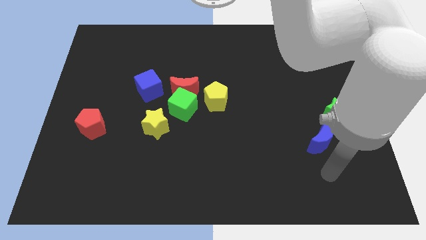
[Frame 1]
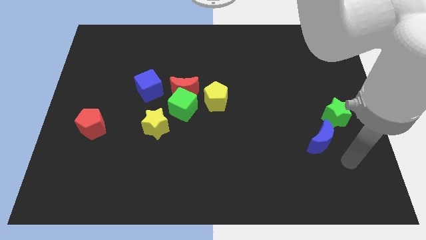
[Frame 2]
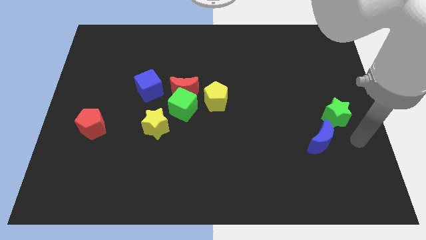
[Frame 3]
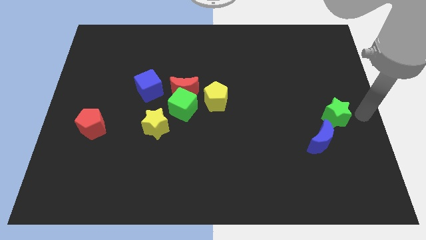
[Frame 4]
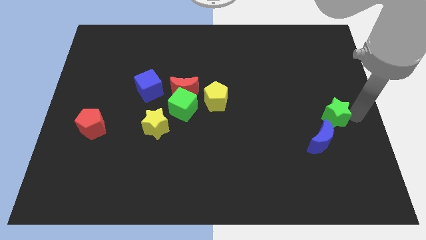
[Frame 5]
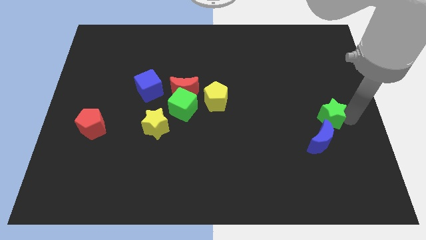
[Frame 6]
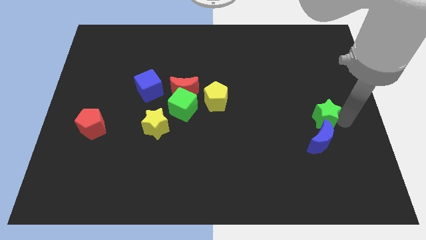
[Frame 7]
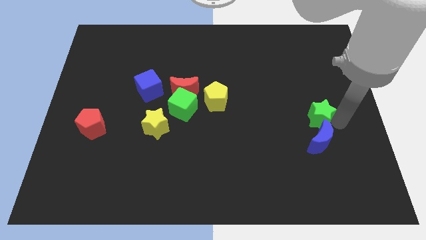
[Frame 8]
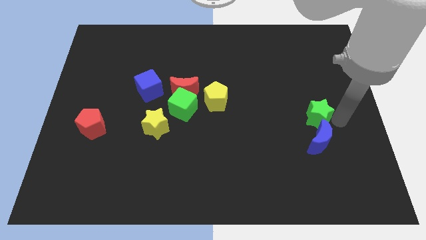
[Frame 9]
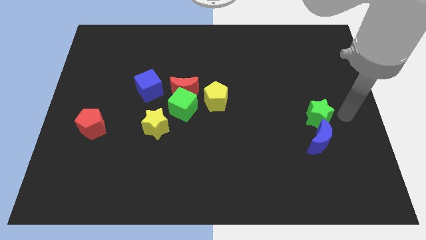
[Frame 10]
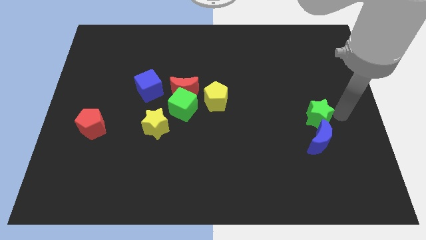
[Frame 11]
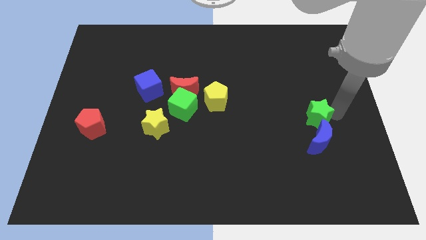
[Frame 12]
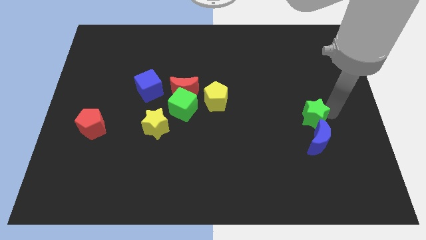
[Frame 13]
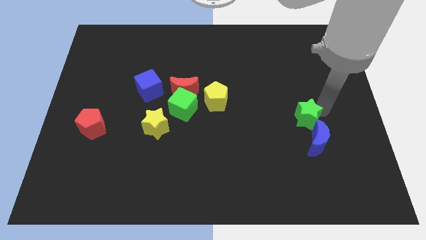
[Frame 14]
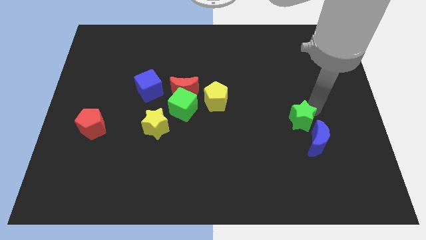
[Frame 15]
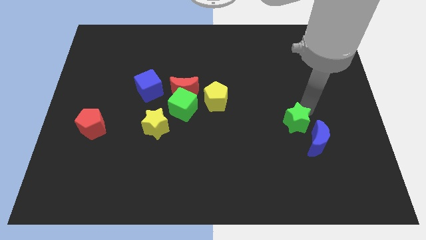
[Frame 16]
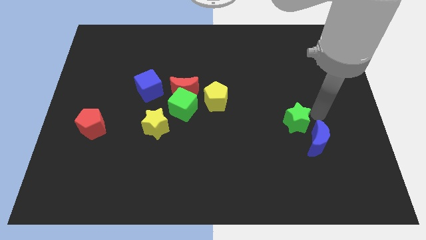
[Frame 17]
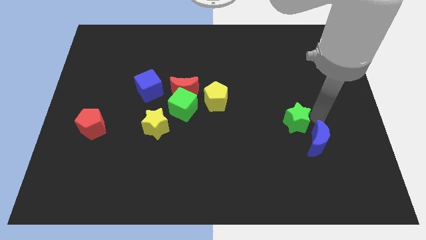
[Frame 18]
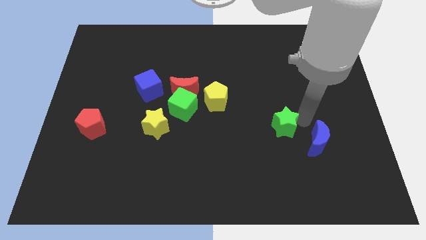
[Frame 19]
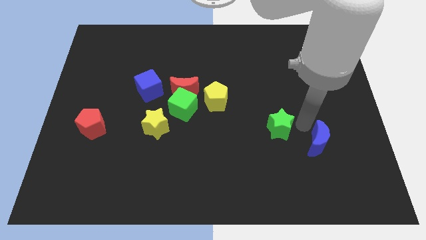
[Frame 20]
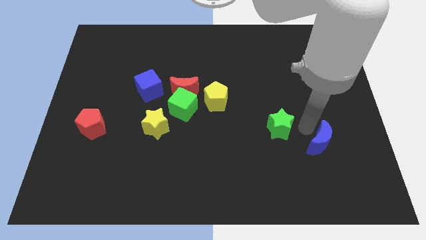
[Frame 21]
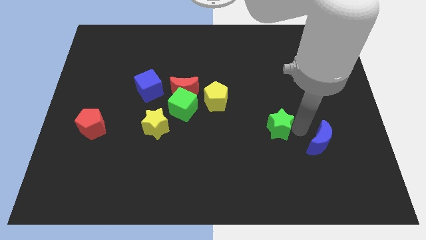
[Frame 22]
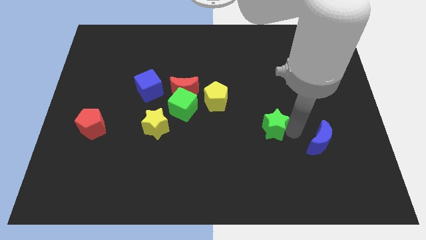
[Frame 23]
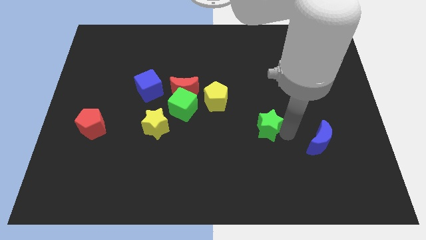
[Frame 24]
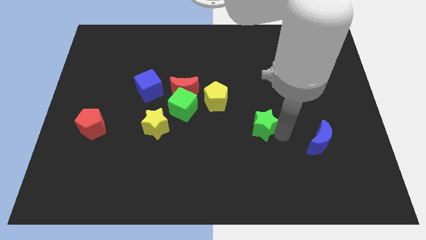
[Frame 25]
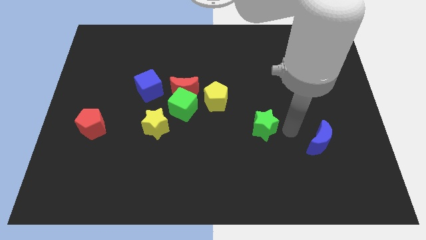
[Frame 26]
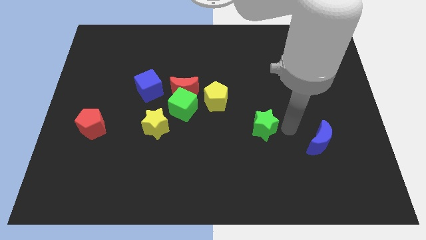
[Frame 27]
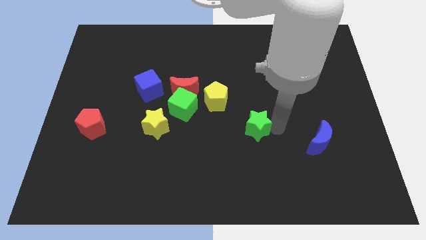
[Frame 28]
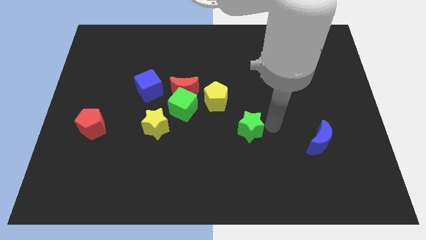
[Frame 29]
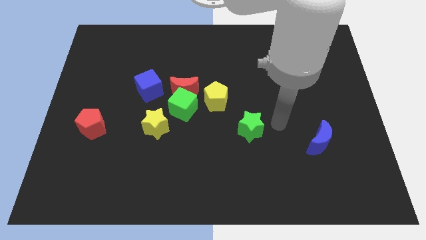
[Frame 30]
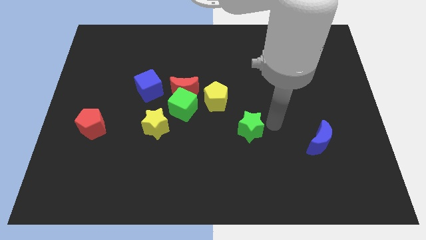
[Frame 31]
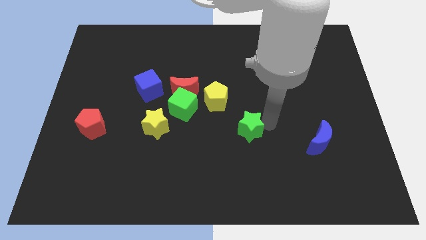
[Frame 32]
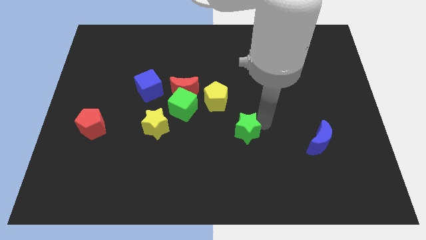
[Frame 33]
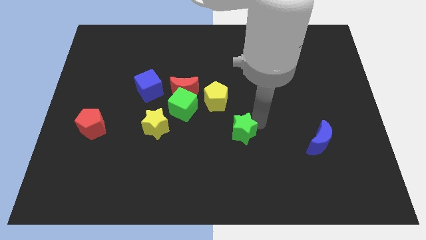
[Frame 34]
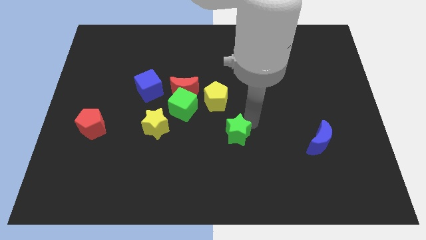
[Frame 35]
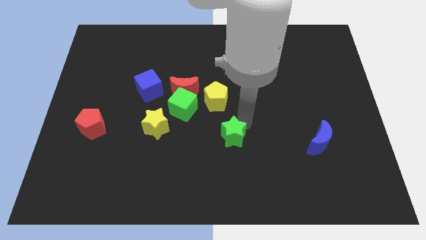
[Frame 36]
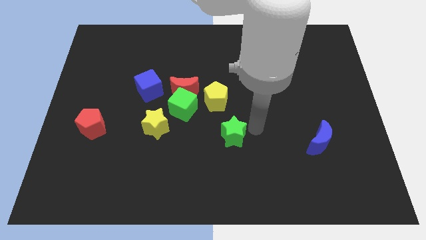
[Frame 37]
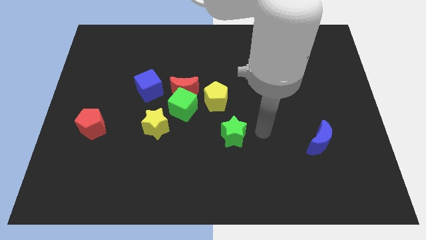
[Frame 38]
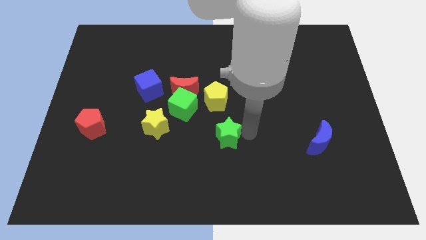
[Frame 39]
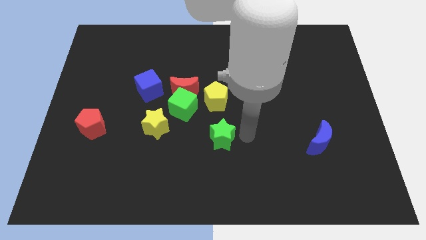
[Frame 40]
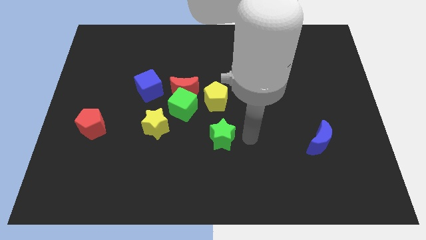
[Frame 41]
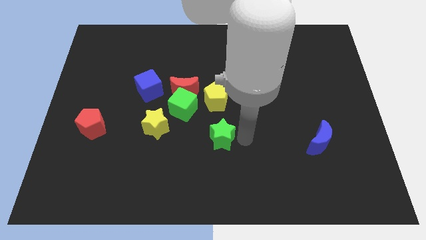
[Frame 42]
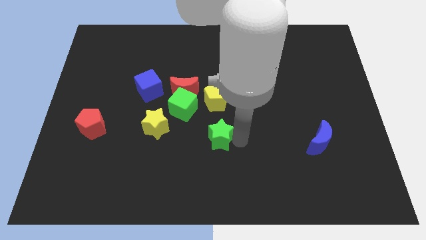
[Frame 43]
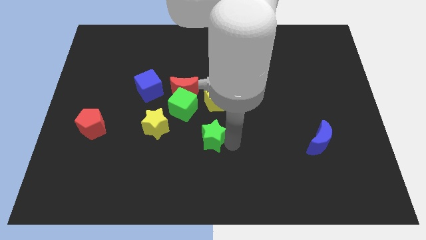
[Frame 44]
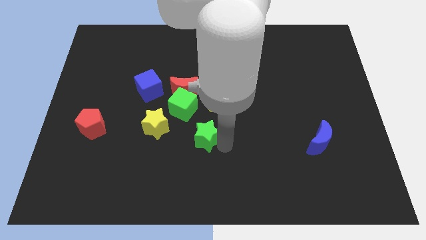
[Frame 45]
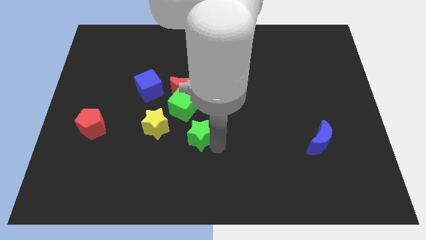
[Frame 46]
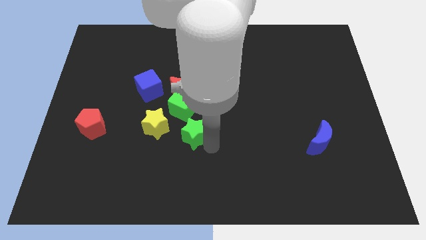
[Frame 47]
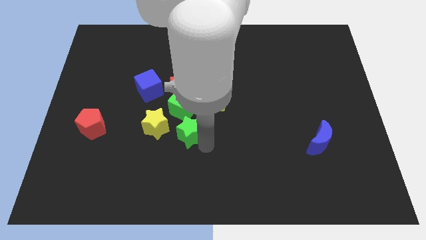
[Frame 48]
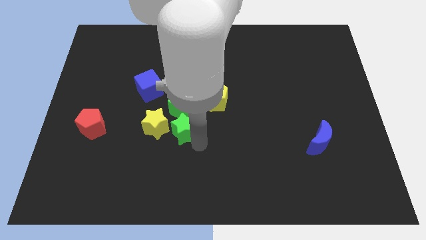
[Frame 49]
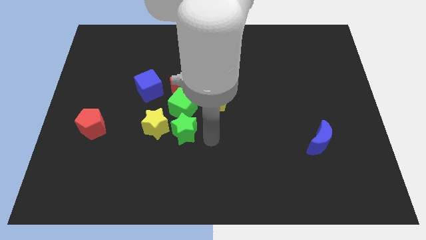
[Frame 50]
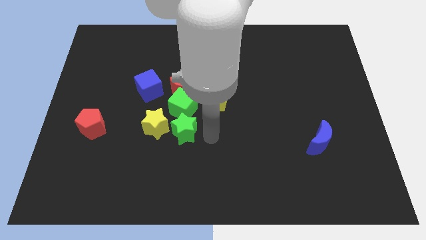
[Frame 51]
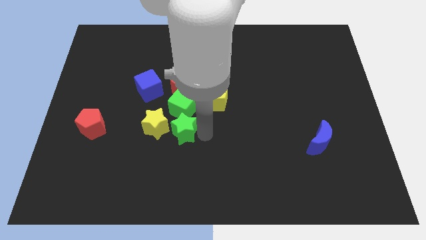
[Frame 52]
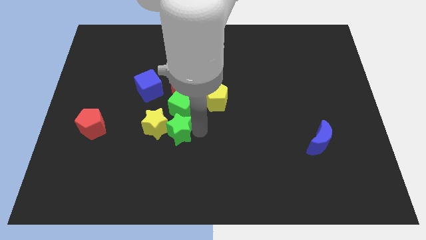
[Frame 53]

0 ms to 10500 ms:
move the green star towards the yellow star

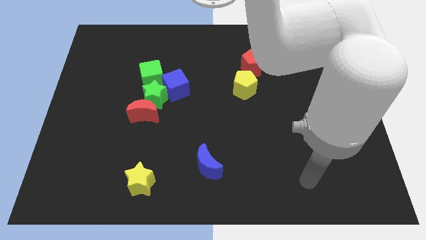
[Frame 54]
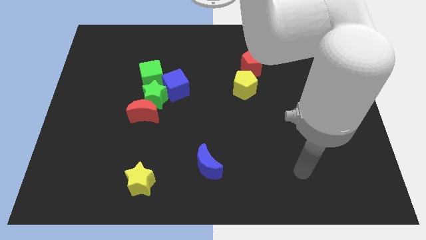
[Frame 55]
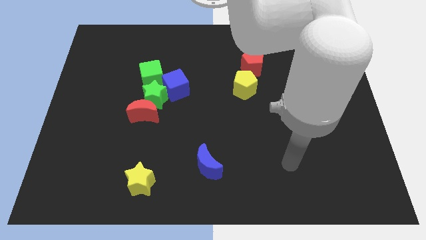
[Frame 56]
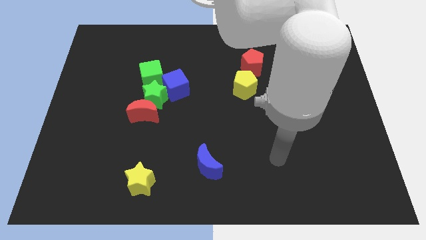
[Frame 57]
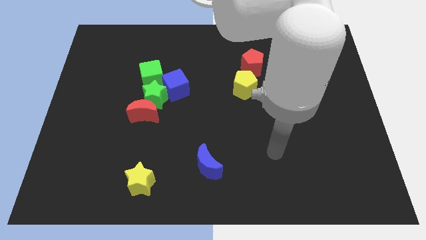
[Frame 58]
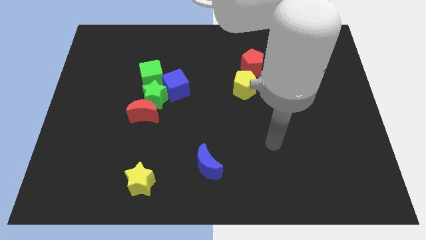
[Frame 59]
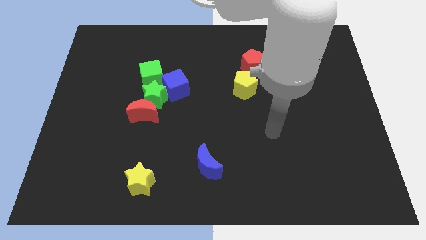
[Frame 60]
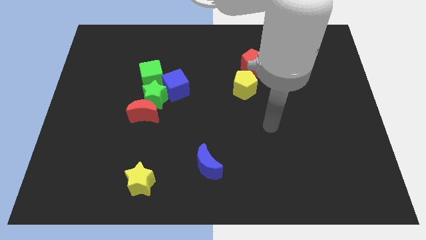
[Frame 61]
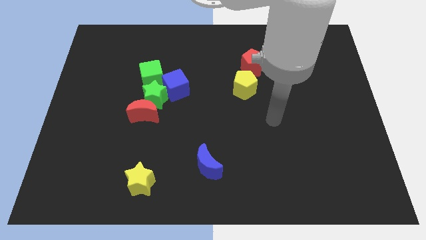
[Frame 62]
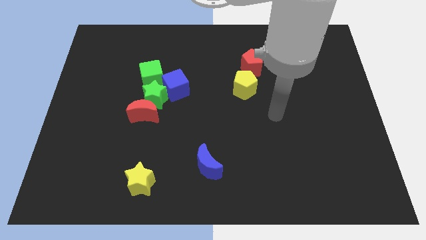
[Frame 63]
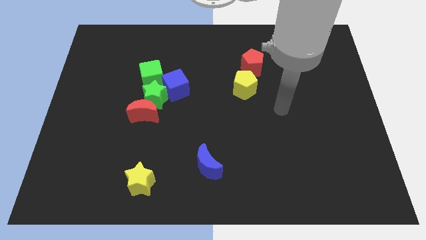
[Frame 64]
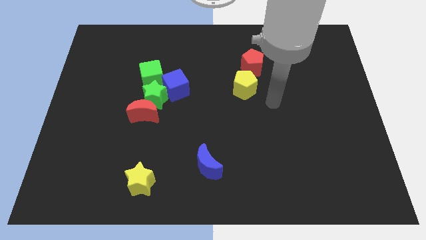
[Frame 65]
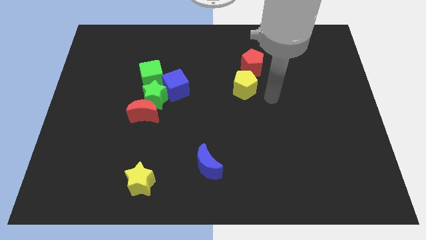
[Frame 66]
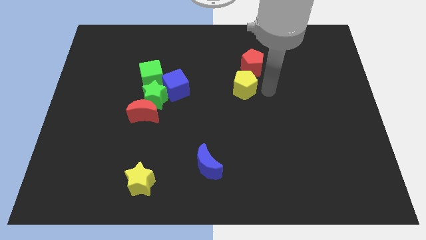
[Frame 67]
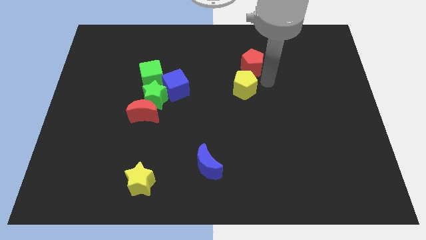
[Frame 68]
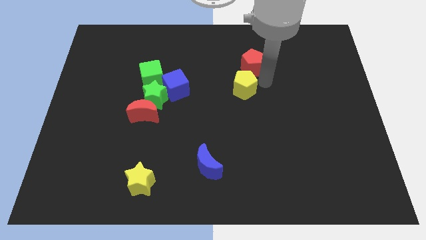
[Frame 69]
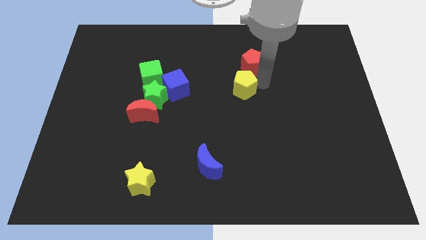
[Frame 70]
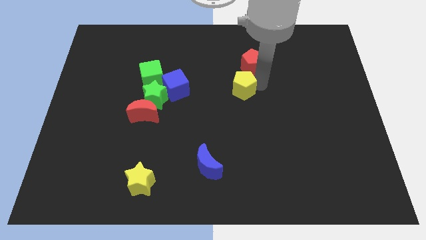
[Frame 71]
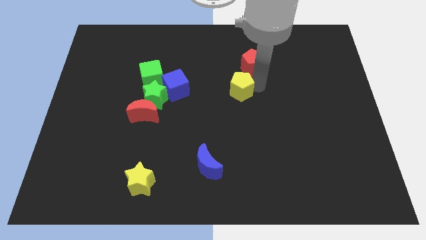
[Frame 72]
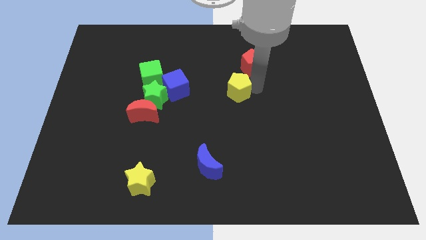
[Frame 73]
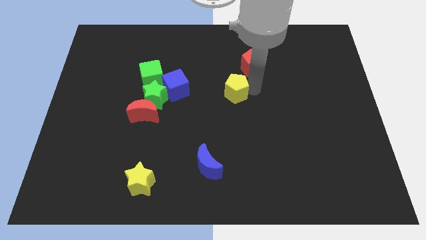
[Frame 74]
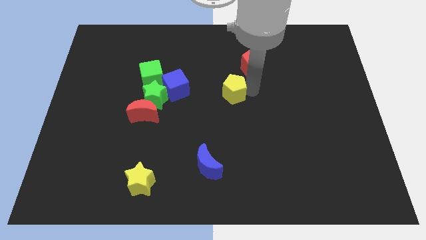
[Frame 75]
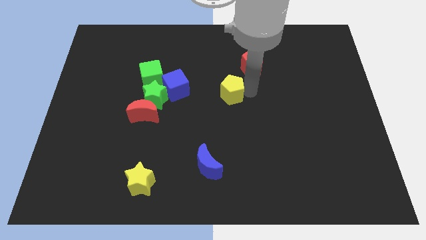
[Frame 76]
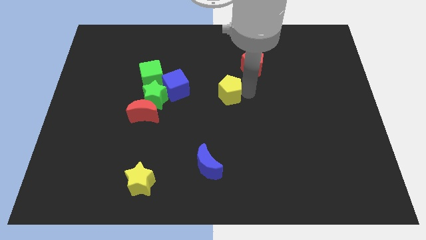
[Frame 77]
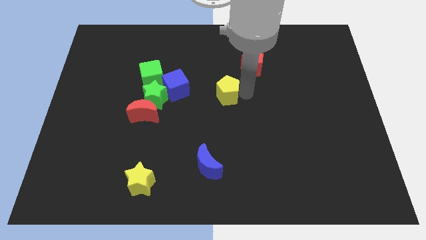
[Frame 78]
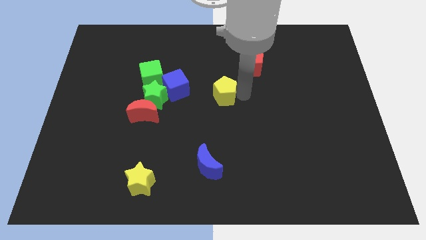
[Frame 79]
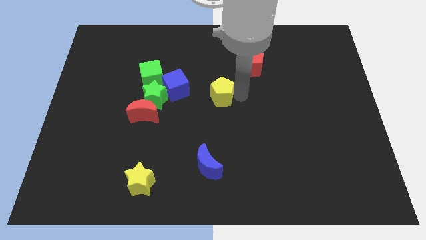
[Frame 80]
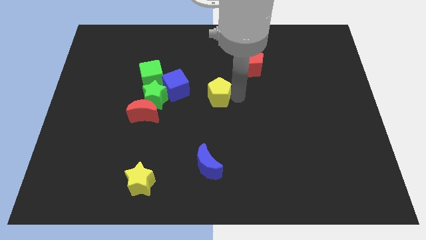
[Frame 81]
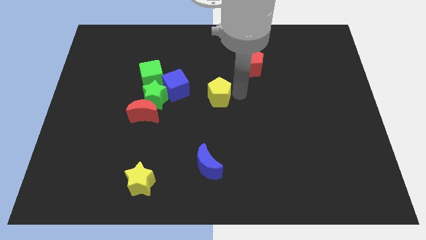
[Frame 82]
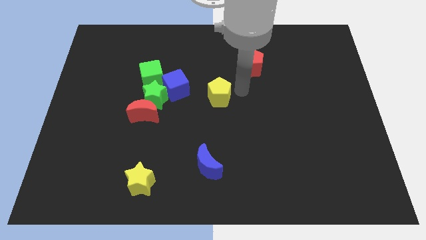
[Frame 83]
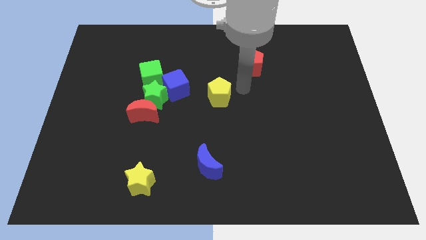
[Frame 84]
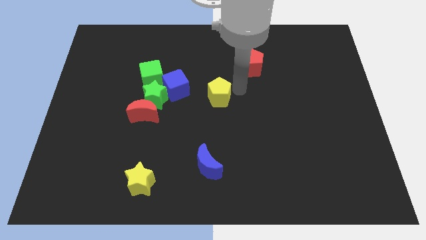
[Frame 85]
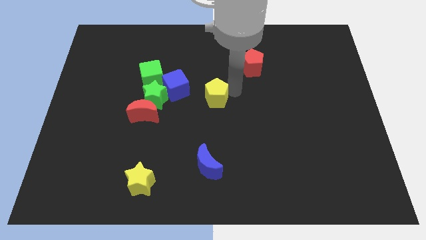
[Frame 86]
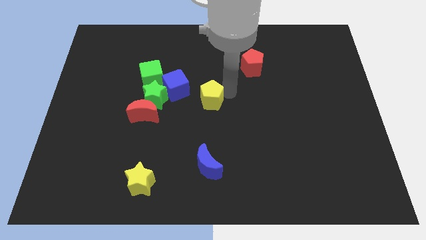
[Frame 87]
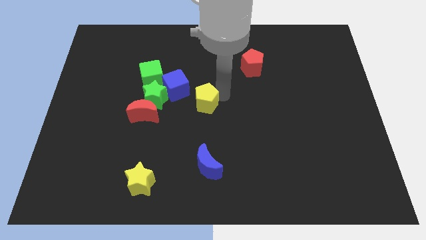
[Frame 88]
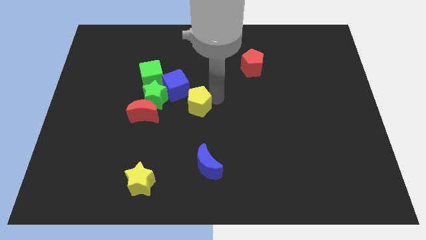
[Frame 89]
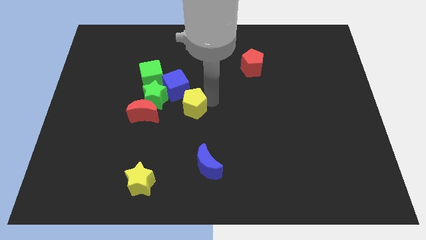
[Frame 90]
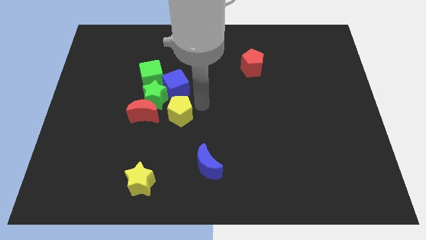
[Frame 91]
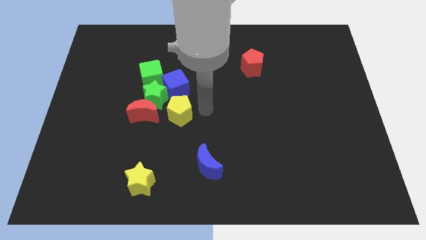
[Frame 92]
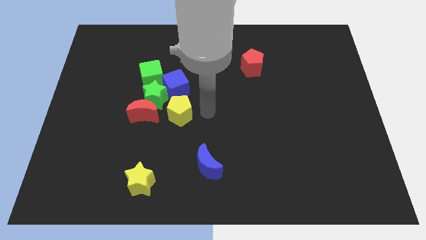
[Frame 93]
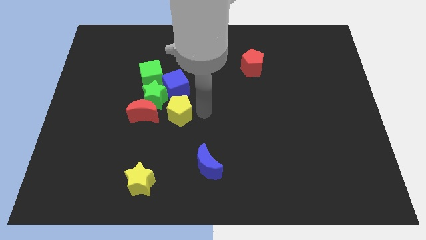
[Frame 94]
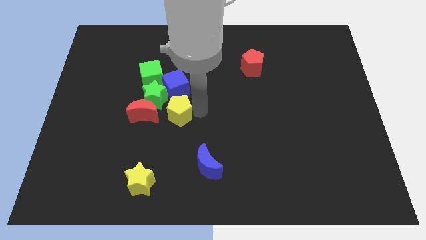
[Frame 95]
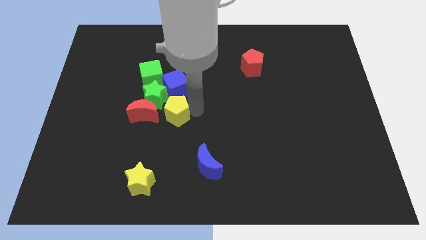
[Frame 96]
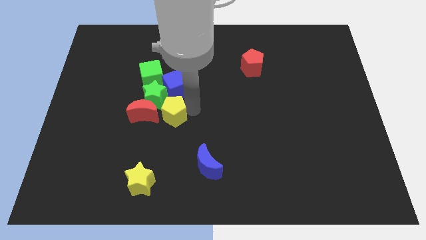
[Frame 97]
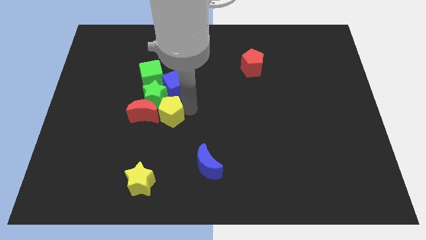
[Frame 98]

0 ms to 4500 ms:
put the yellow pentagon to the red moon
